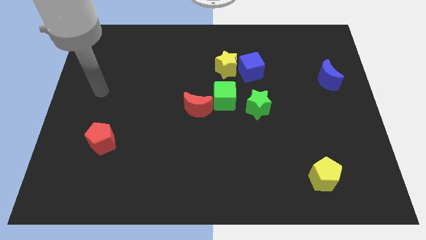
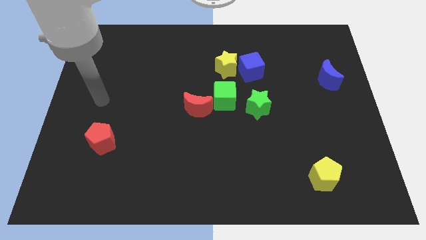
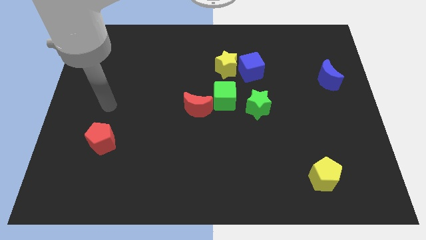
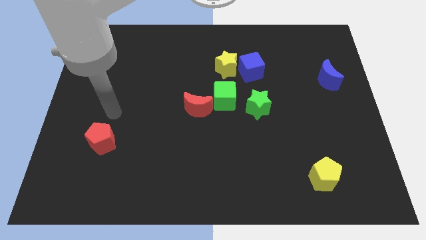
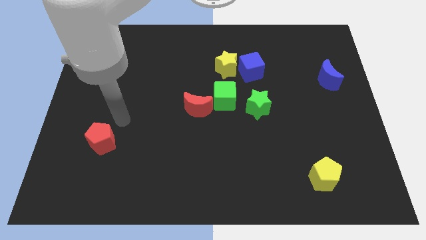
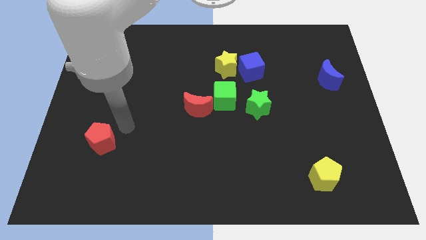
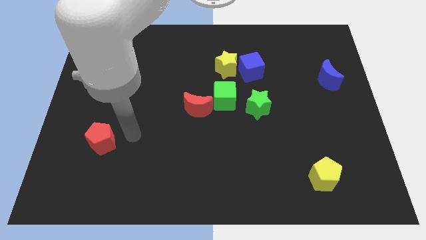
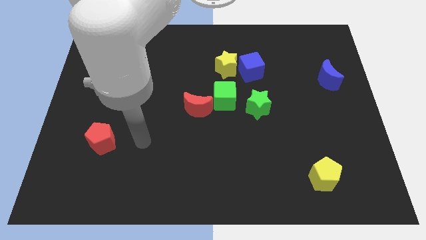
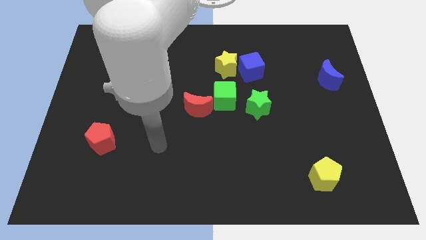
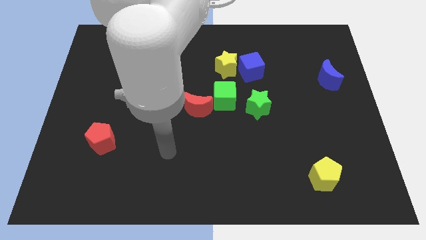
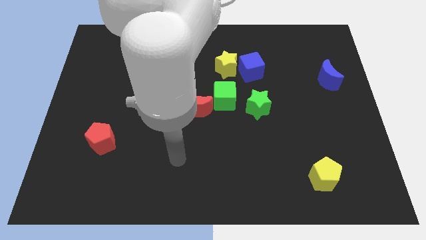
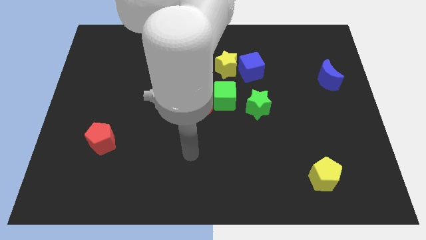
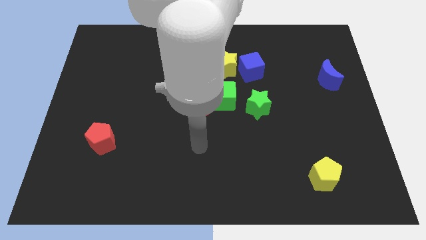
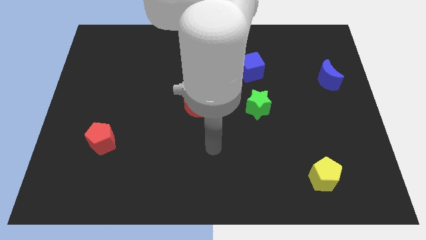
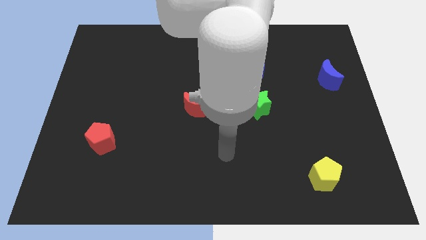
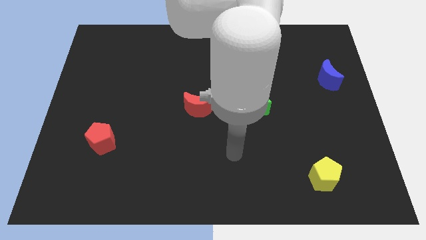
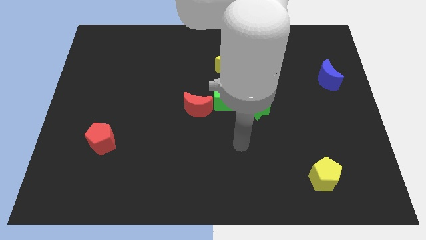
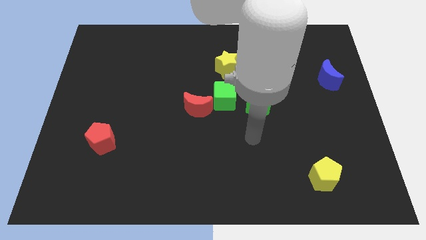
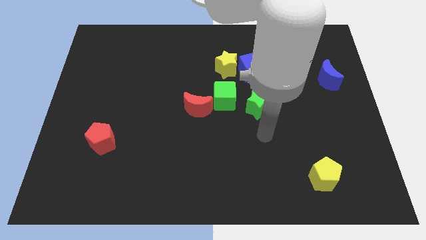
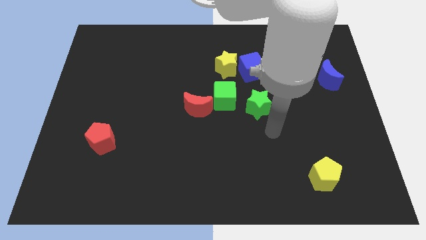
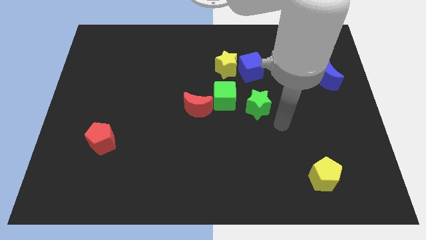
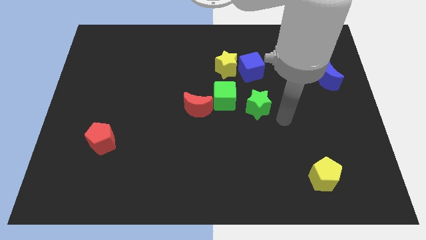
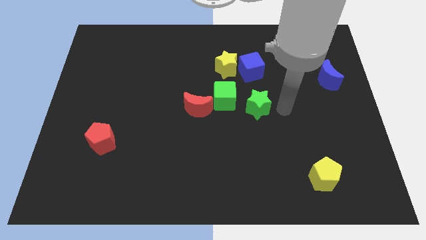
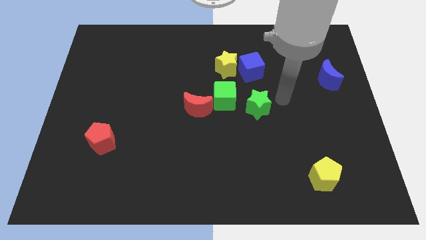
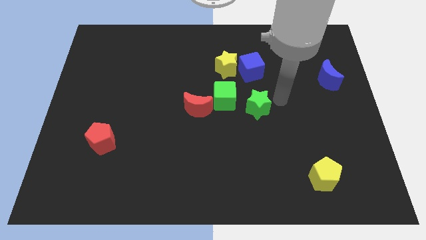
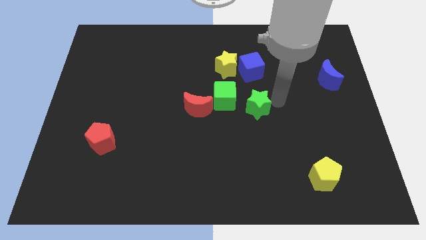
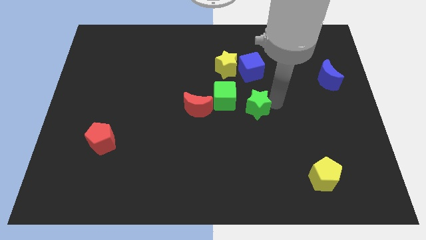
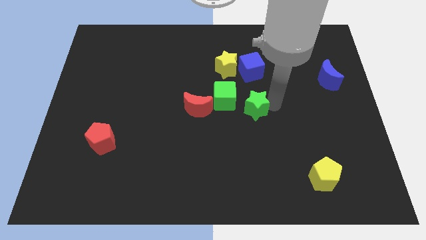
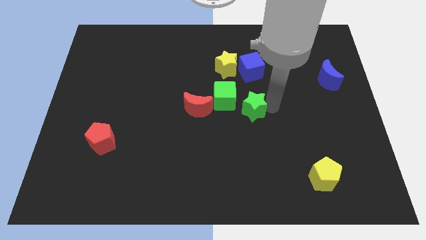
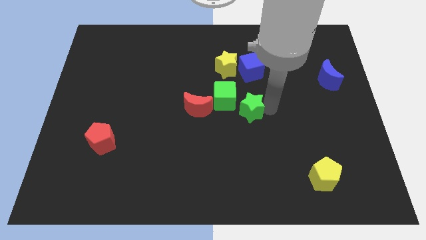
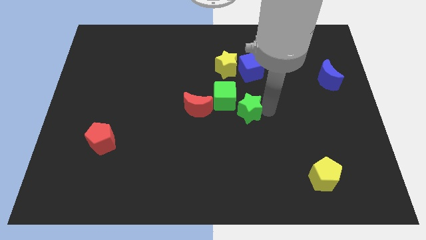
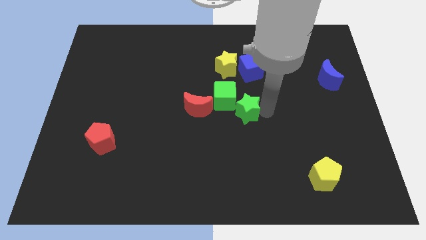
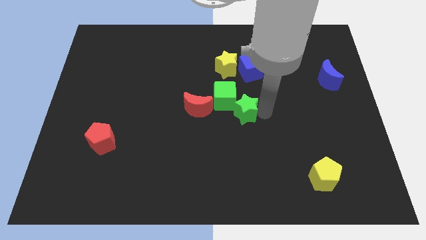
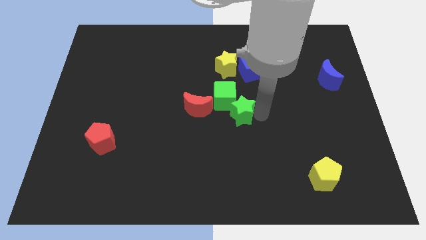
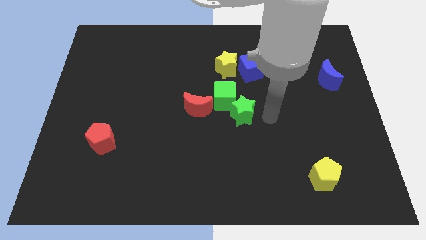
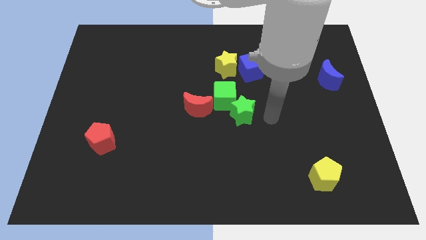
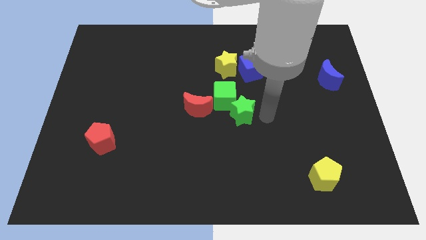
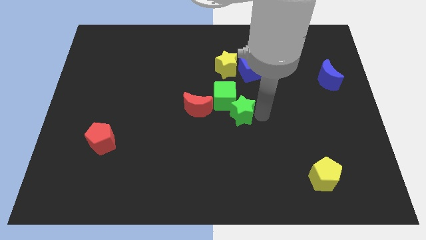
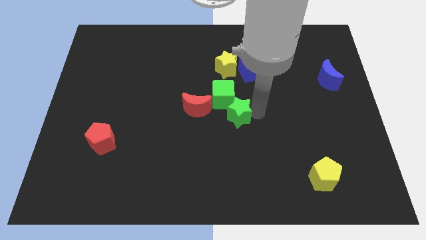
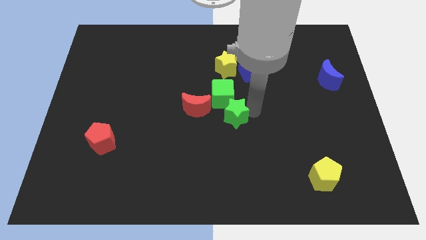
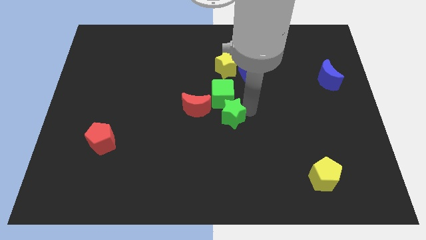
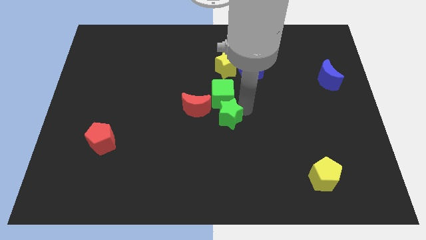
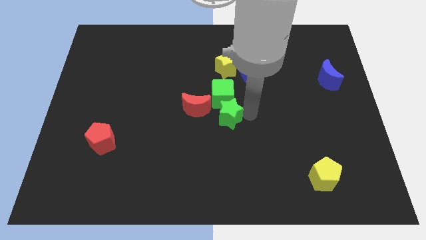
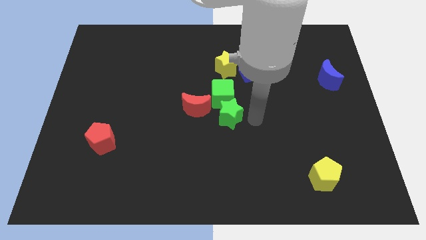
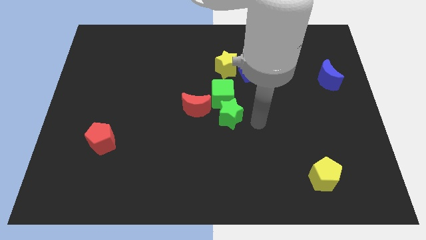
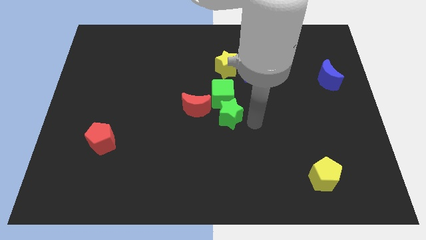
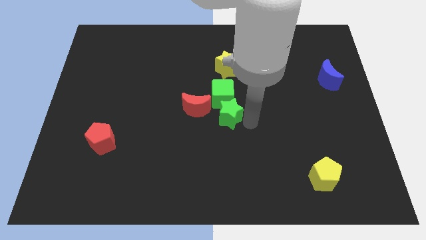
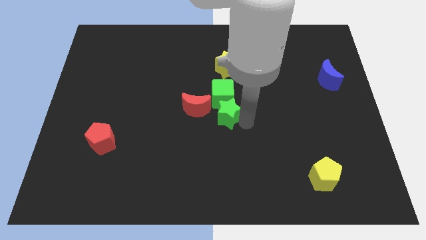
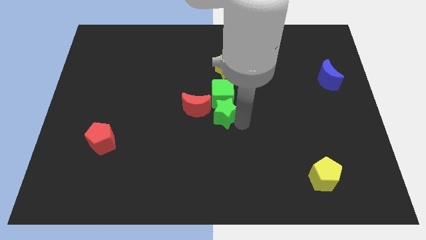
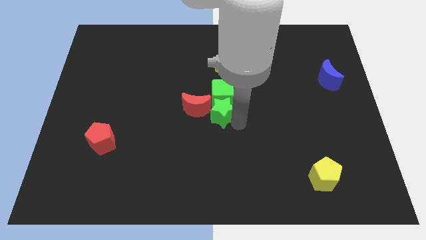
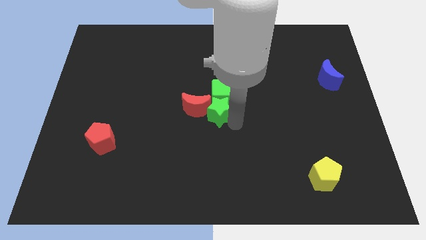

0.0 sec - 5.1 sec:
slide the green star close to the red moon

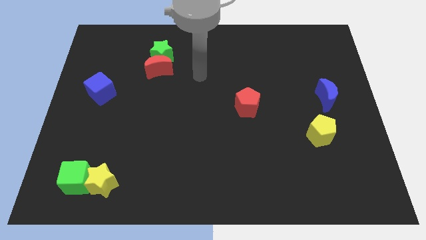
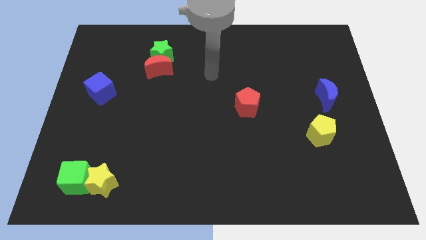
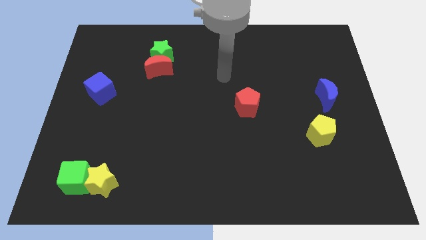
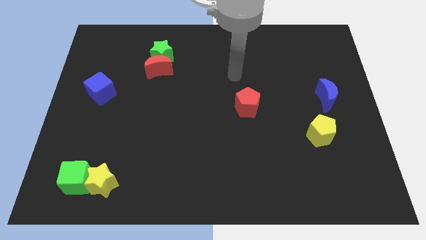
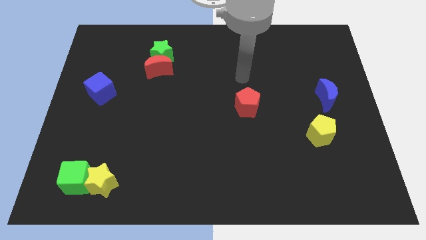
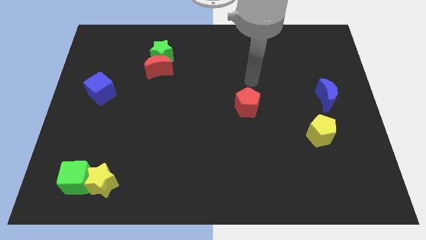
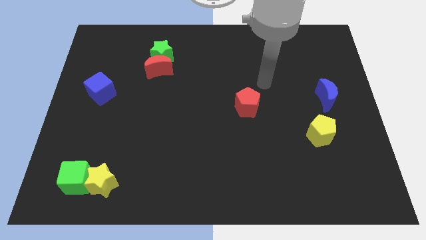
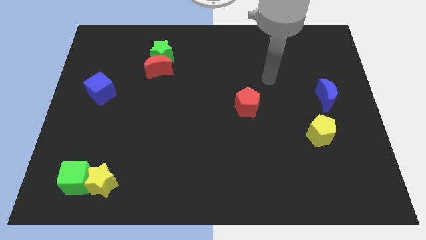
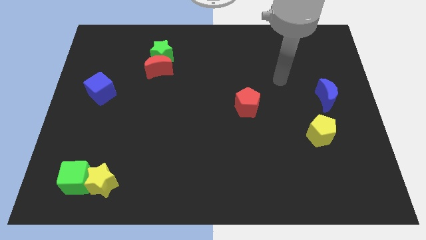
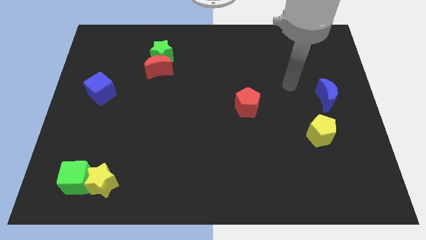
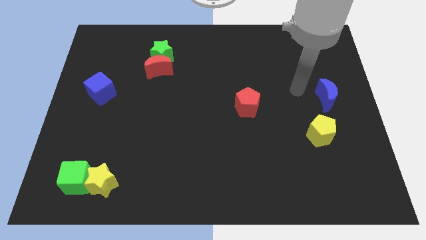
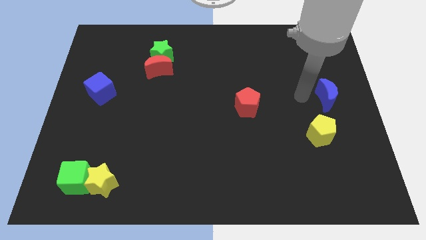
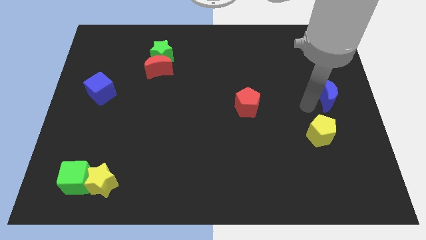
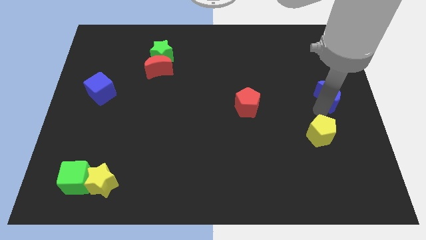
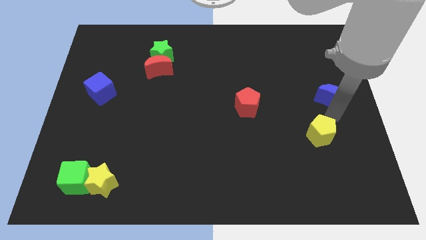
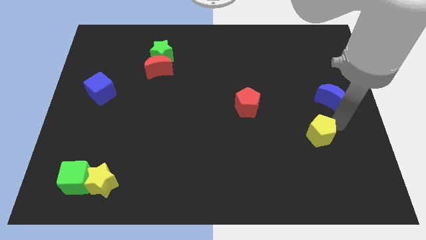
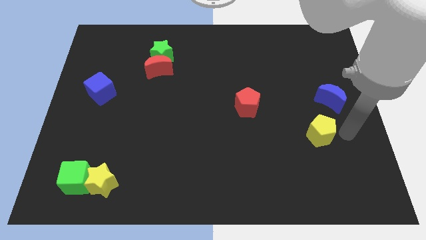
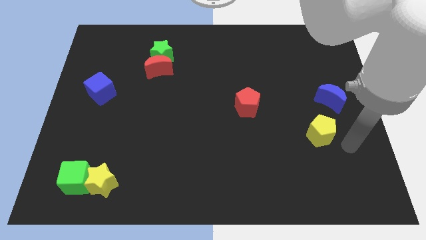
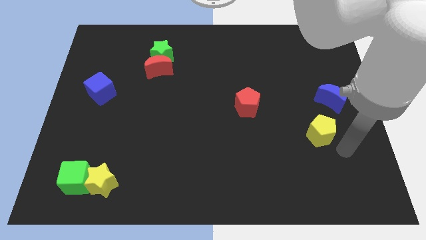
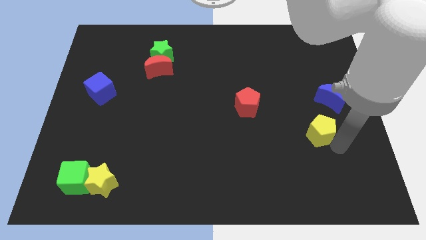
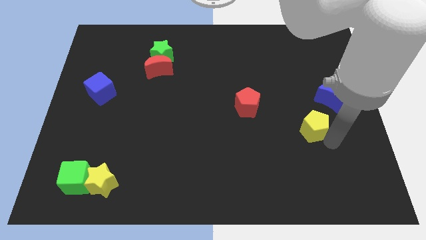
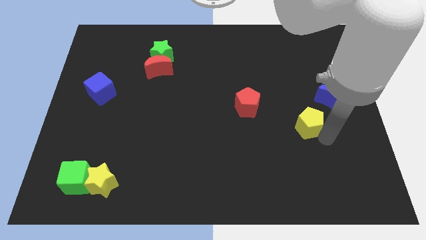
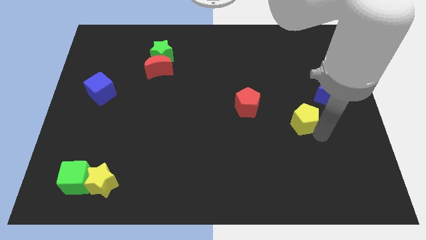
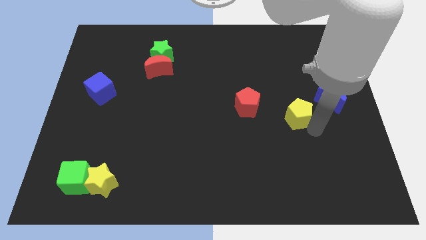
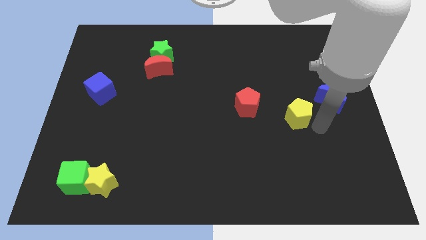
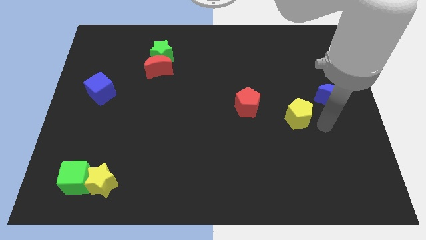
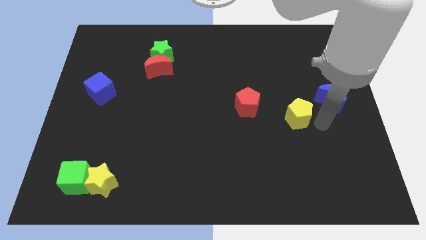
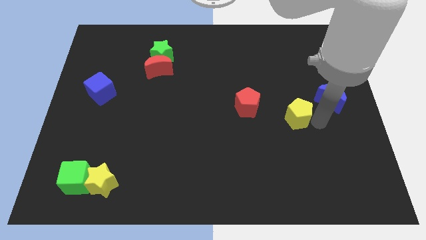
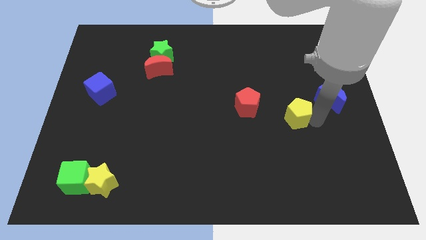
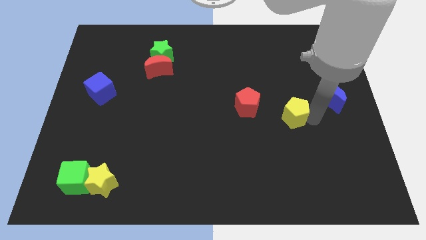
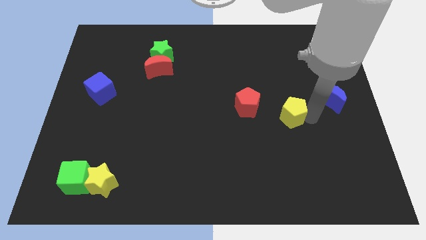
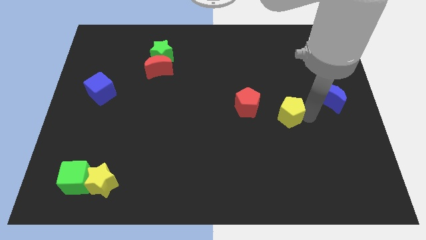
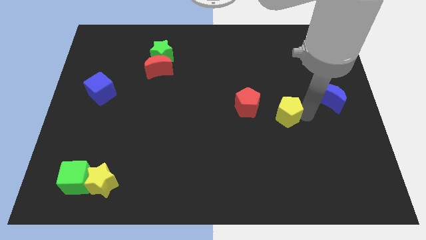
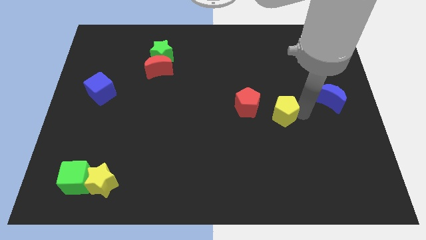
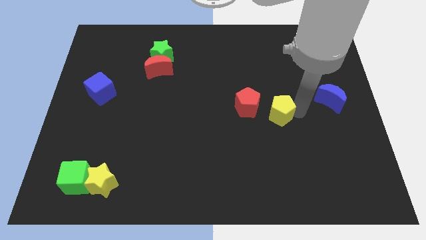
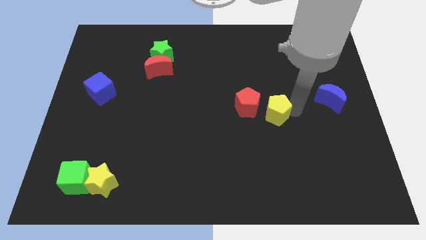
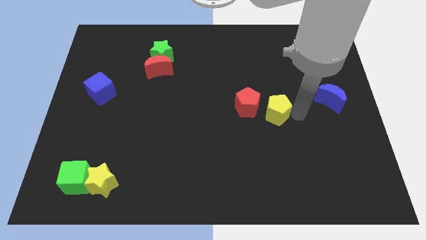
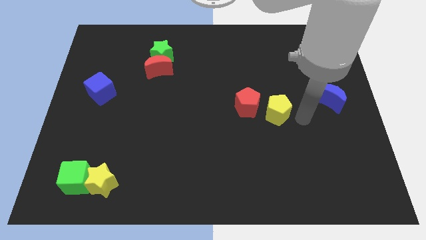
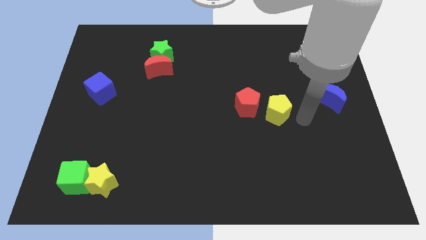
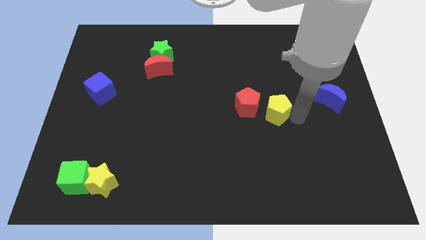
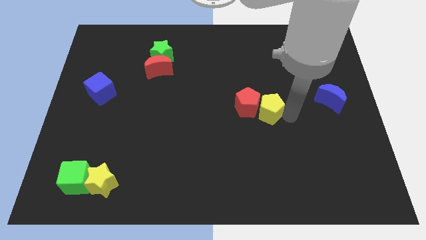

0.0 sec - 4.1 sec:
push the yellow pentagon close to the red pentagon
